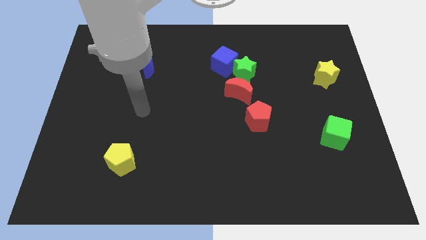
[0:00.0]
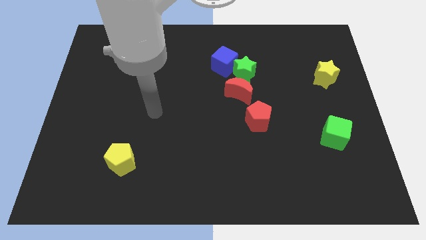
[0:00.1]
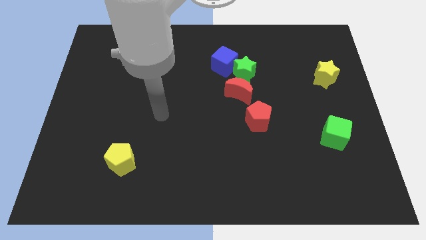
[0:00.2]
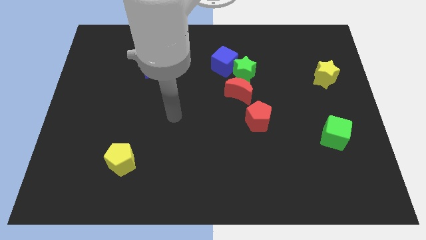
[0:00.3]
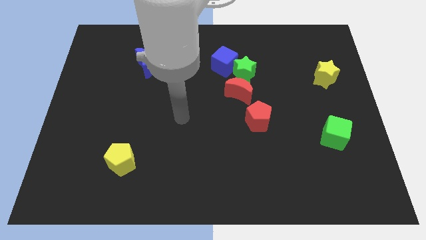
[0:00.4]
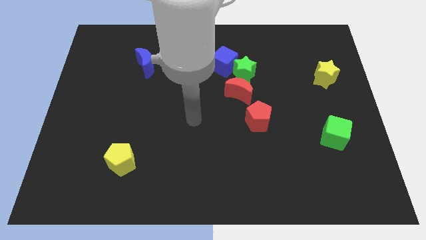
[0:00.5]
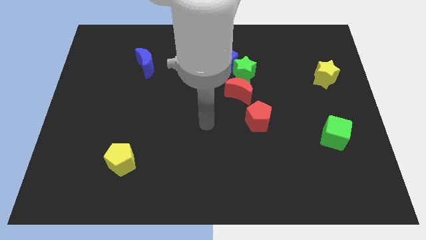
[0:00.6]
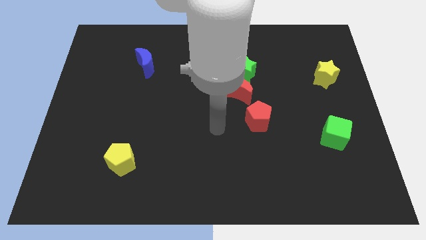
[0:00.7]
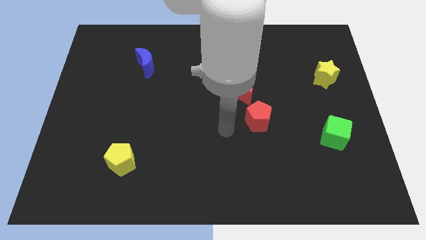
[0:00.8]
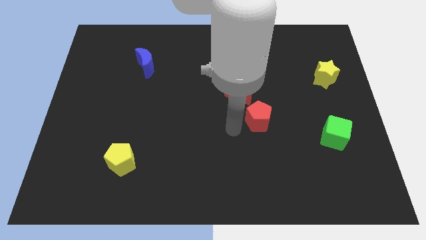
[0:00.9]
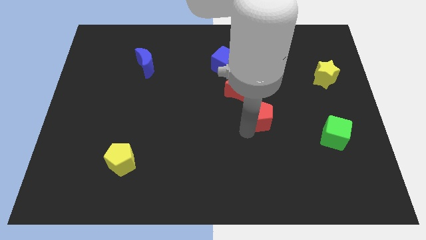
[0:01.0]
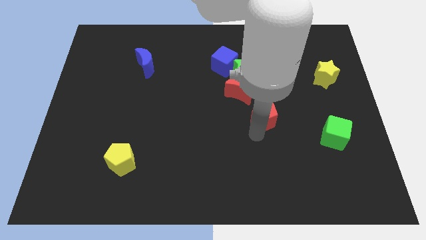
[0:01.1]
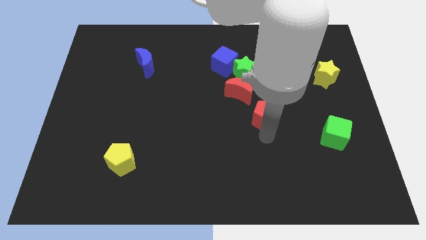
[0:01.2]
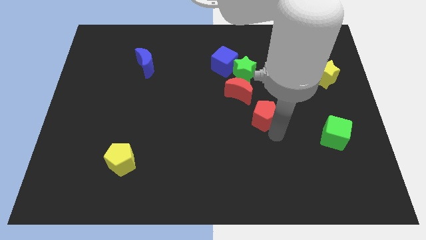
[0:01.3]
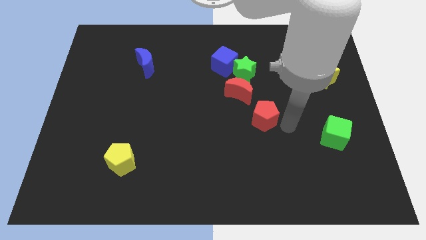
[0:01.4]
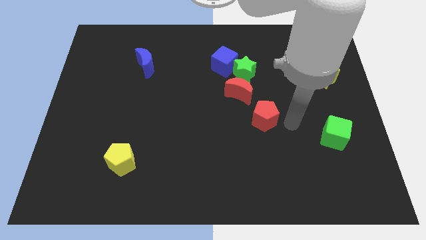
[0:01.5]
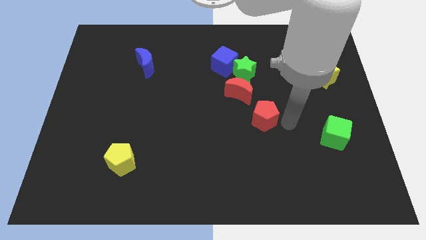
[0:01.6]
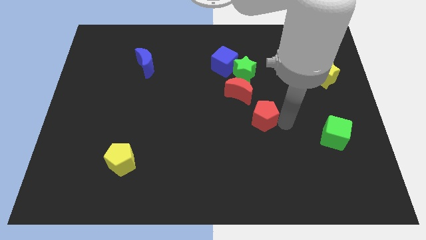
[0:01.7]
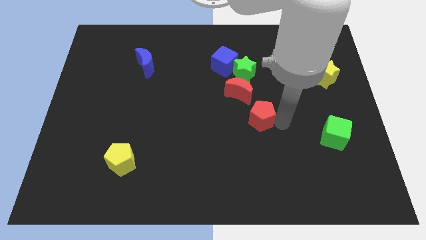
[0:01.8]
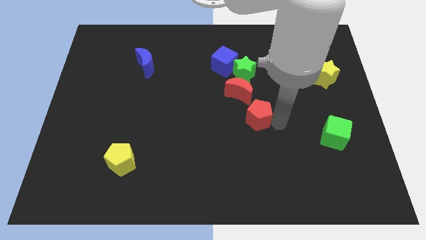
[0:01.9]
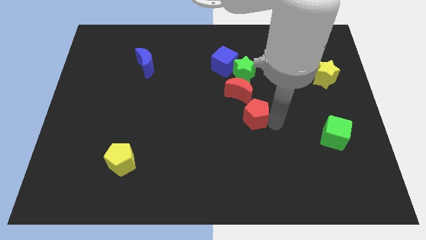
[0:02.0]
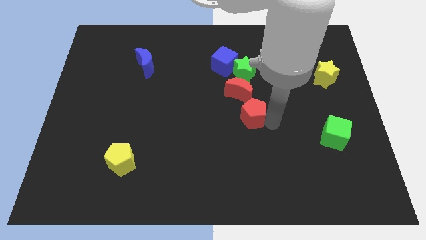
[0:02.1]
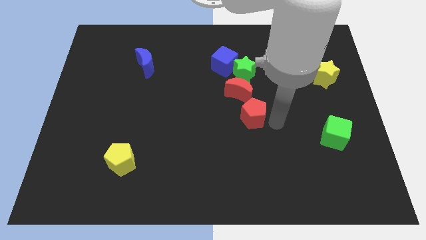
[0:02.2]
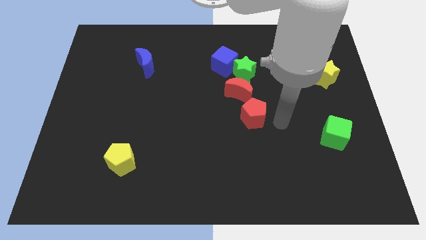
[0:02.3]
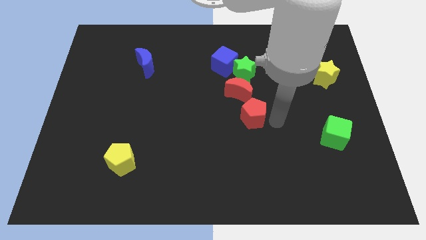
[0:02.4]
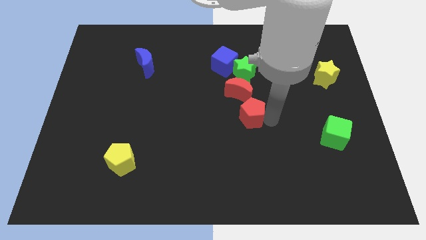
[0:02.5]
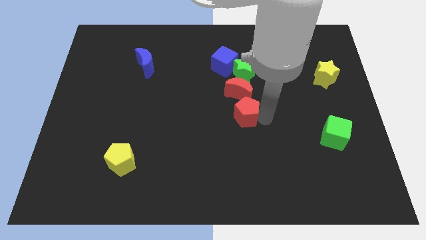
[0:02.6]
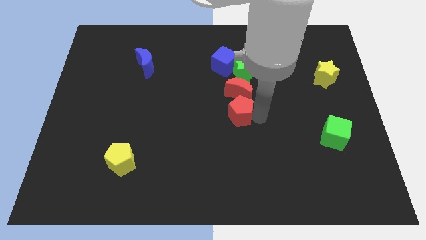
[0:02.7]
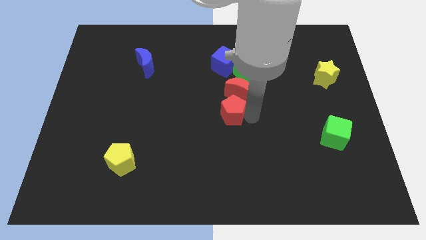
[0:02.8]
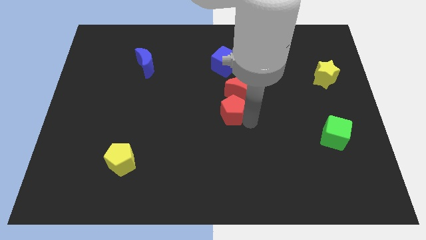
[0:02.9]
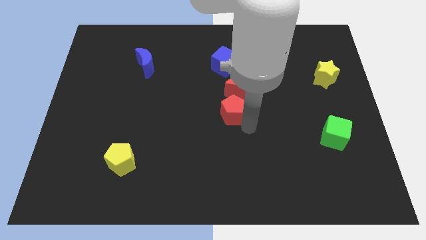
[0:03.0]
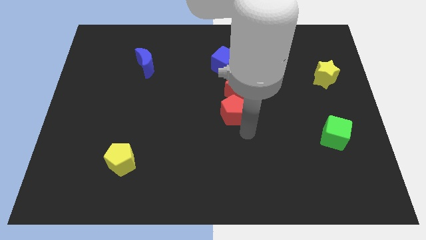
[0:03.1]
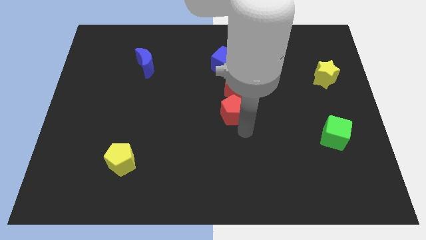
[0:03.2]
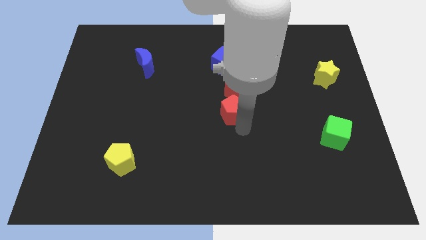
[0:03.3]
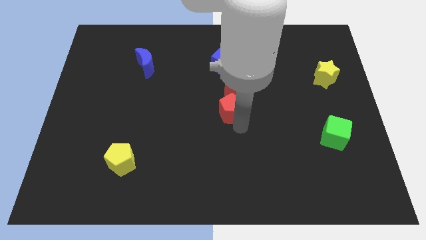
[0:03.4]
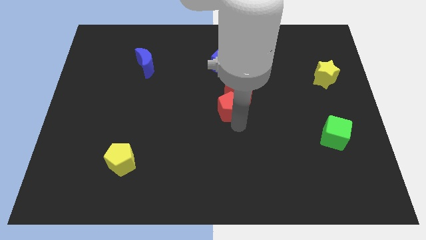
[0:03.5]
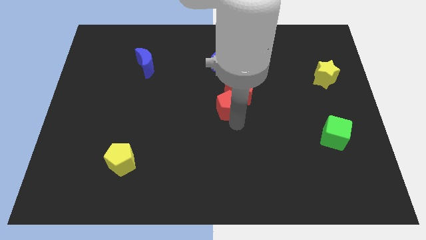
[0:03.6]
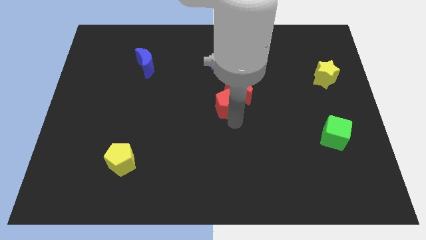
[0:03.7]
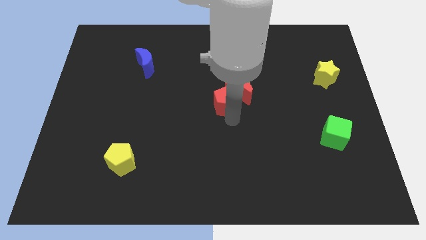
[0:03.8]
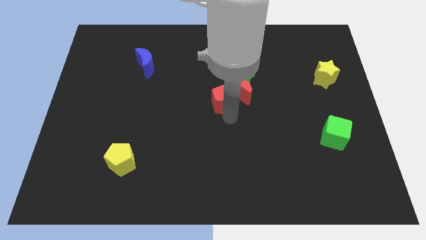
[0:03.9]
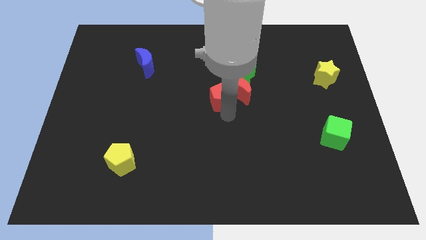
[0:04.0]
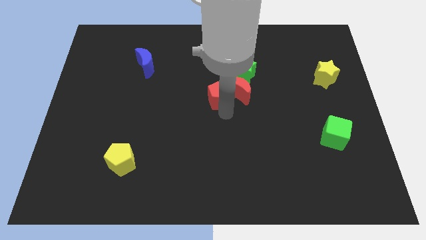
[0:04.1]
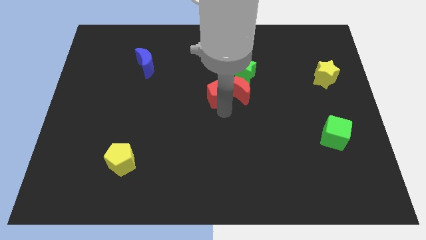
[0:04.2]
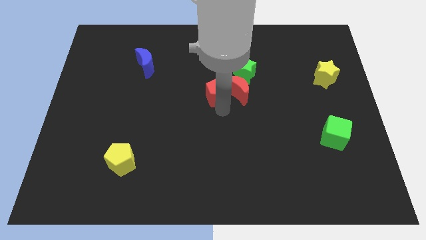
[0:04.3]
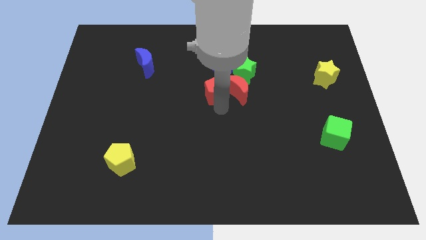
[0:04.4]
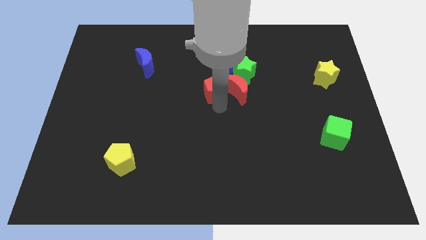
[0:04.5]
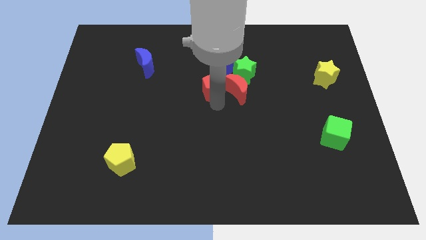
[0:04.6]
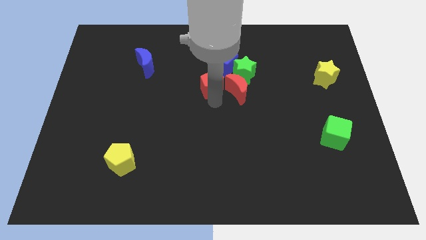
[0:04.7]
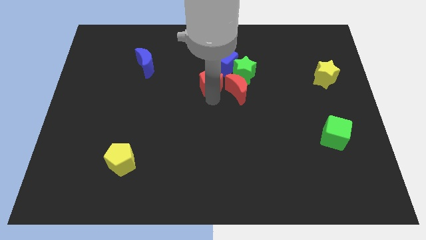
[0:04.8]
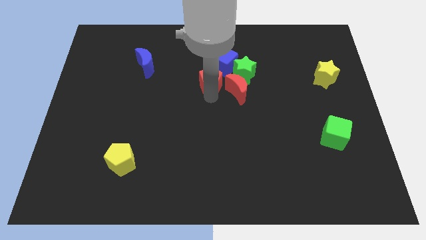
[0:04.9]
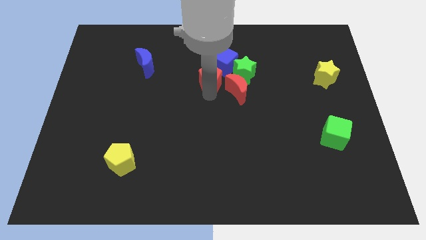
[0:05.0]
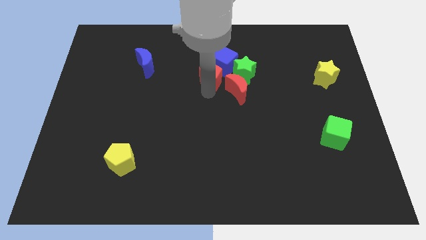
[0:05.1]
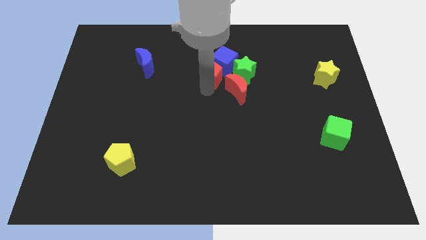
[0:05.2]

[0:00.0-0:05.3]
slide the red pentagon left of the blue cube

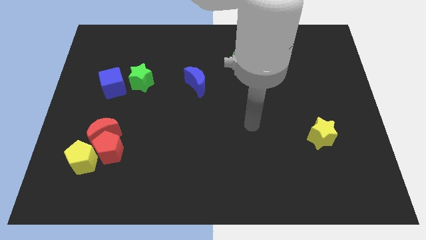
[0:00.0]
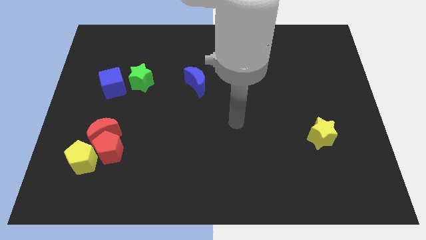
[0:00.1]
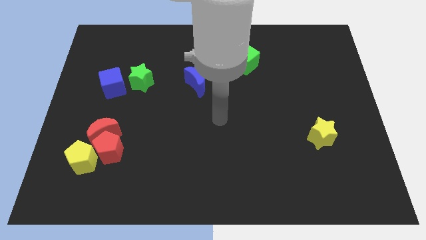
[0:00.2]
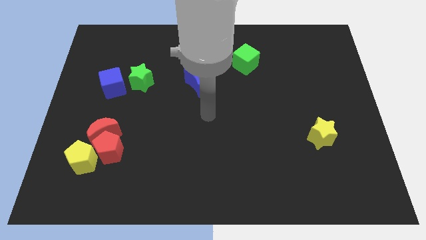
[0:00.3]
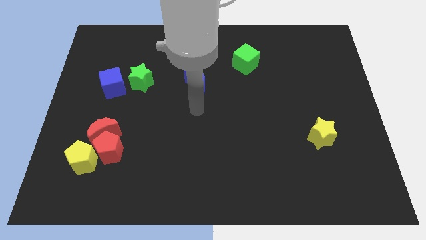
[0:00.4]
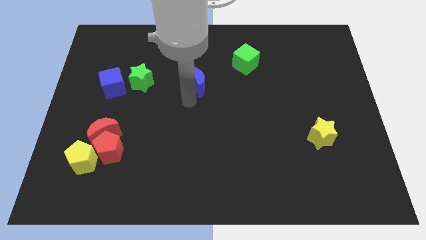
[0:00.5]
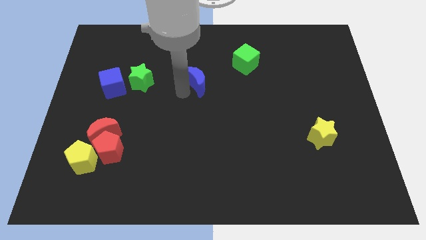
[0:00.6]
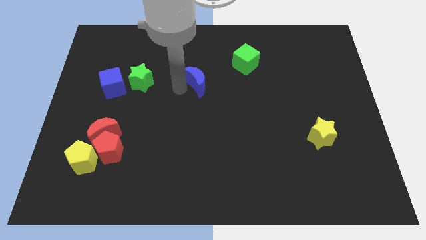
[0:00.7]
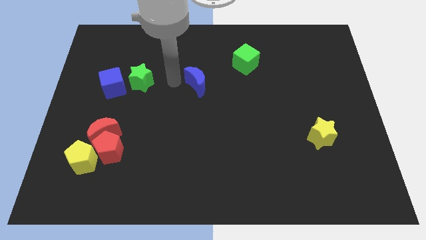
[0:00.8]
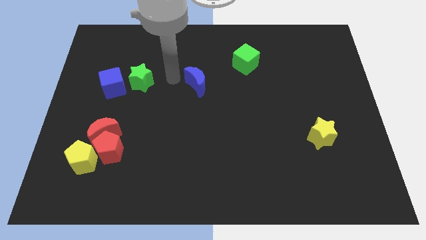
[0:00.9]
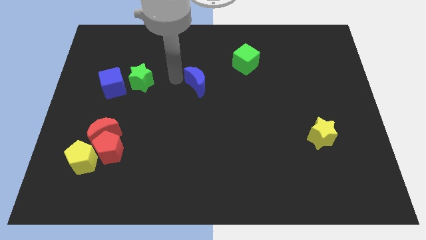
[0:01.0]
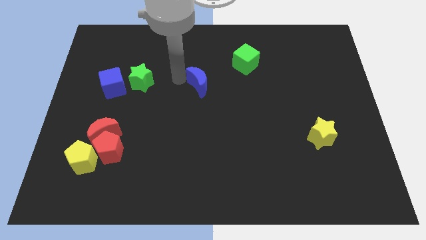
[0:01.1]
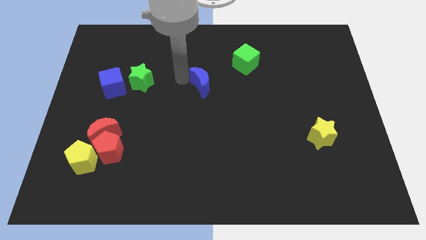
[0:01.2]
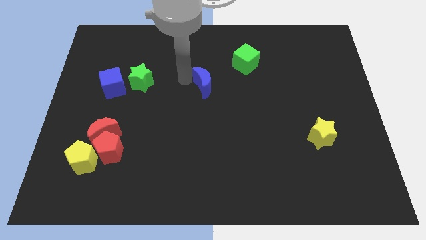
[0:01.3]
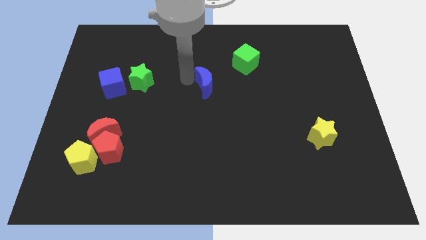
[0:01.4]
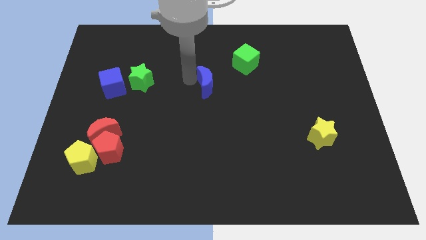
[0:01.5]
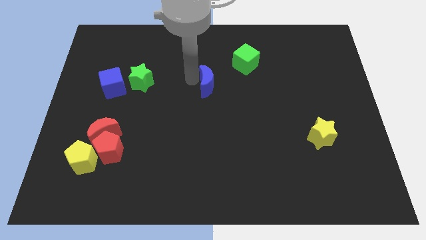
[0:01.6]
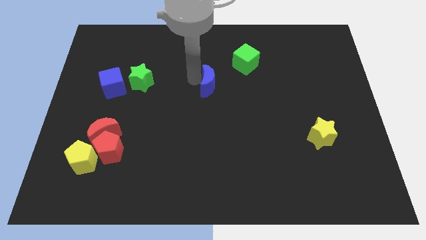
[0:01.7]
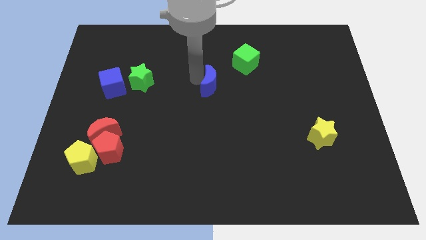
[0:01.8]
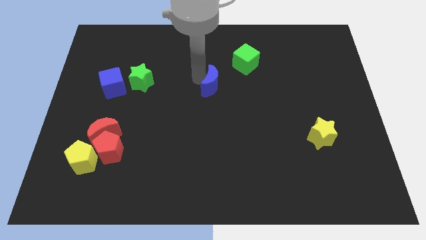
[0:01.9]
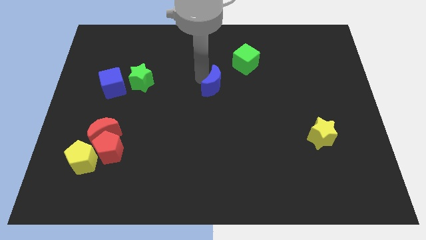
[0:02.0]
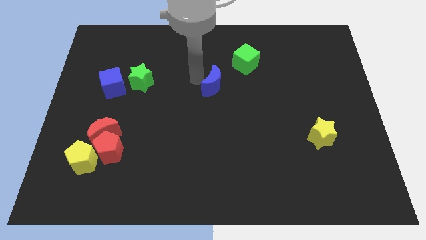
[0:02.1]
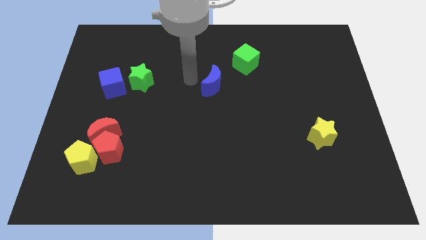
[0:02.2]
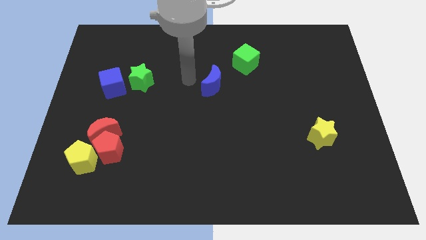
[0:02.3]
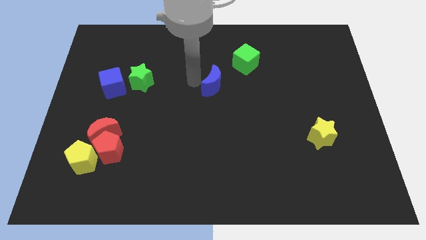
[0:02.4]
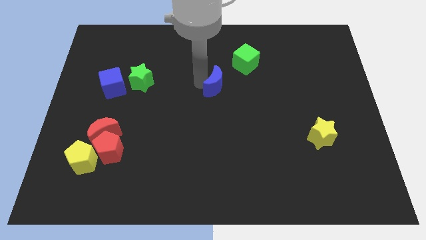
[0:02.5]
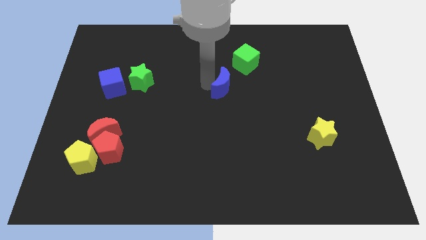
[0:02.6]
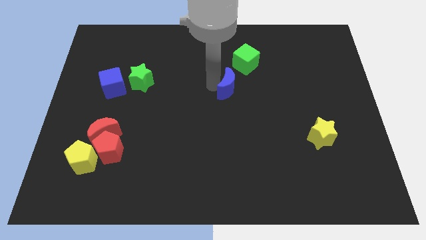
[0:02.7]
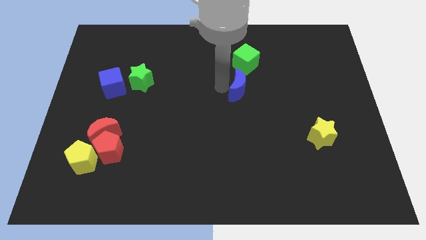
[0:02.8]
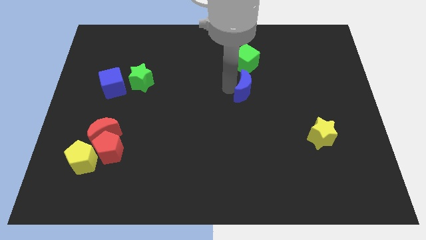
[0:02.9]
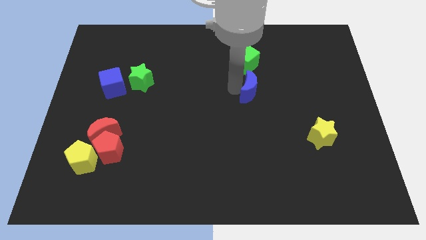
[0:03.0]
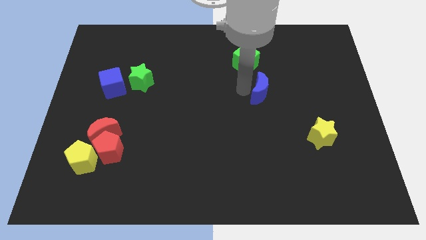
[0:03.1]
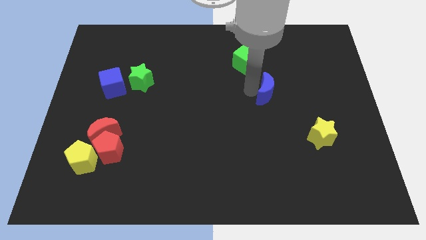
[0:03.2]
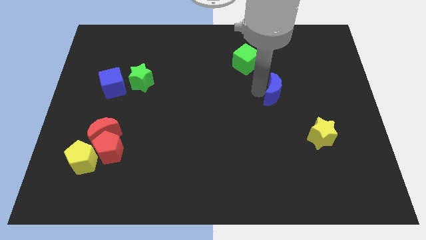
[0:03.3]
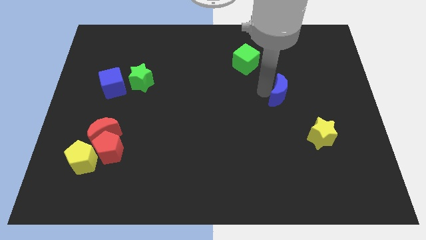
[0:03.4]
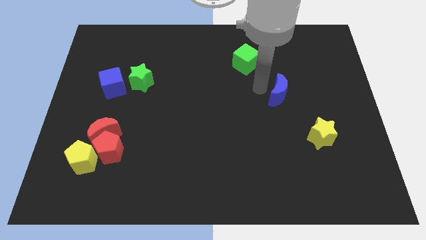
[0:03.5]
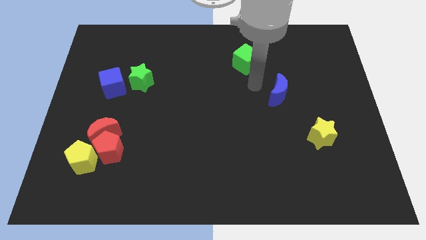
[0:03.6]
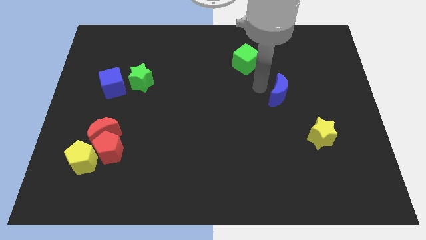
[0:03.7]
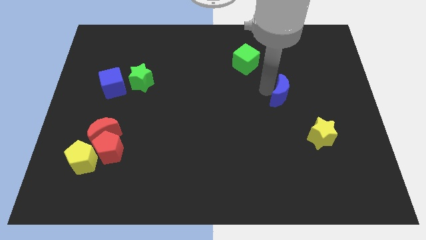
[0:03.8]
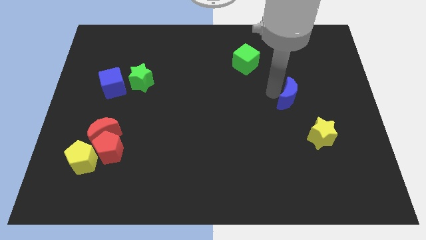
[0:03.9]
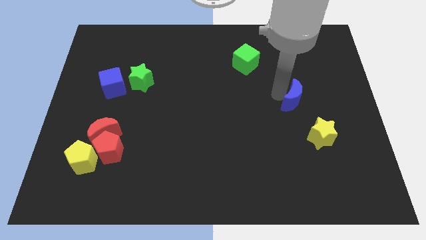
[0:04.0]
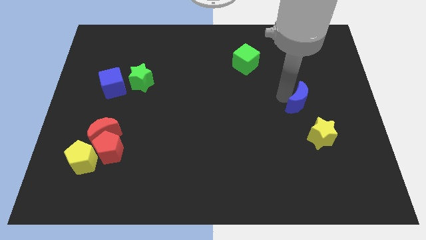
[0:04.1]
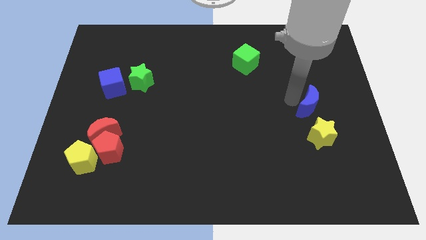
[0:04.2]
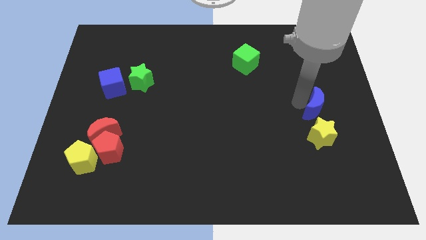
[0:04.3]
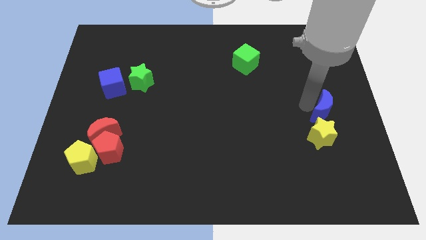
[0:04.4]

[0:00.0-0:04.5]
slide the blue moon to the top right of the yellow star
